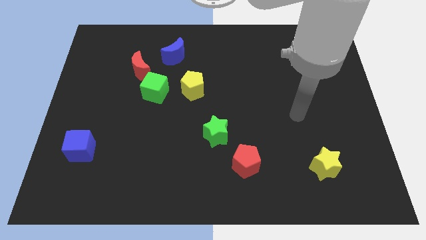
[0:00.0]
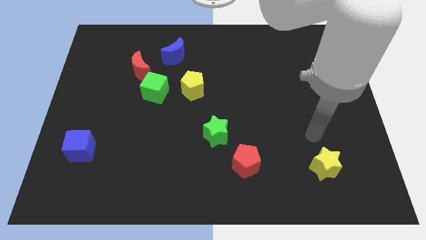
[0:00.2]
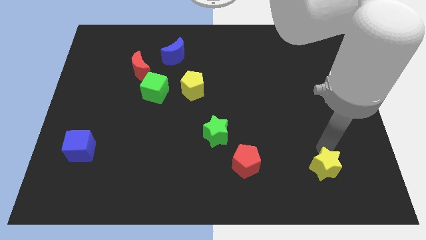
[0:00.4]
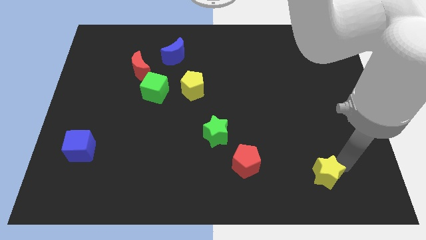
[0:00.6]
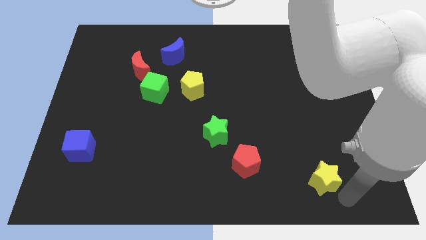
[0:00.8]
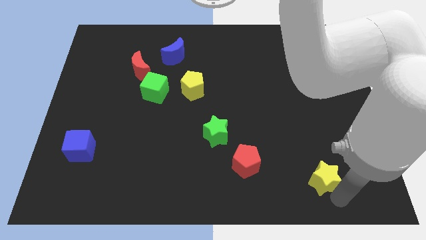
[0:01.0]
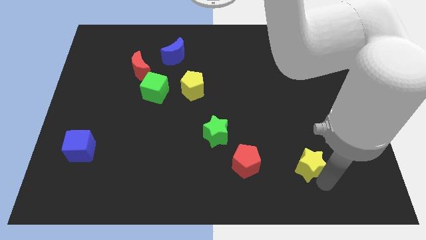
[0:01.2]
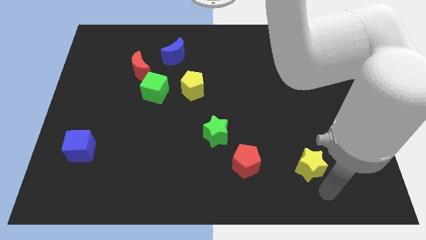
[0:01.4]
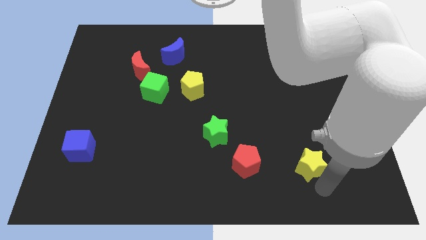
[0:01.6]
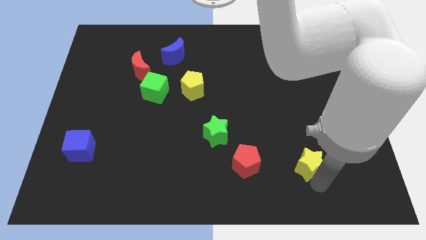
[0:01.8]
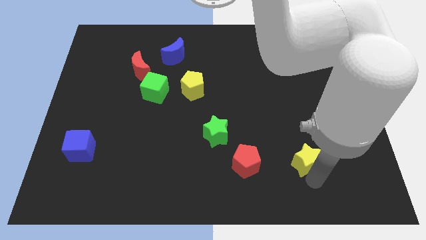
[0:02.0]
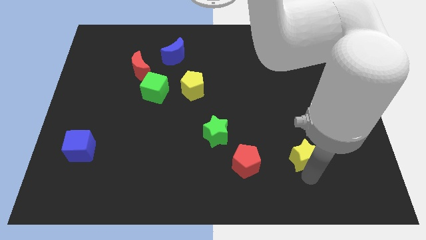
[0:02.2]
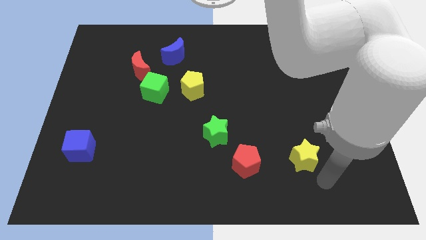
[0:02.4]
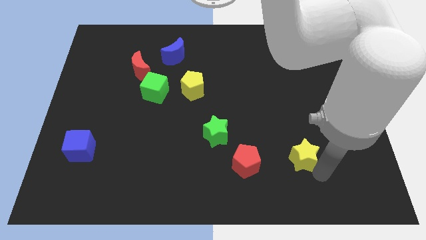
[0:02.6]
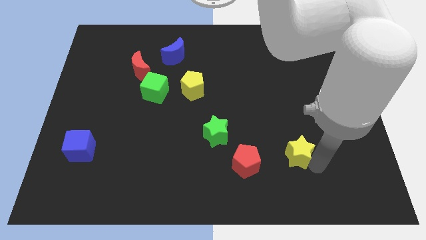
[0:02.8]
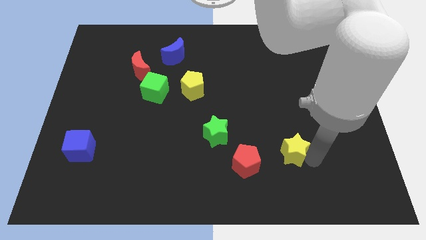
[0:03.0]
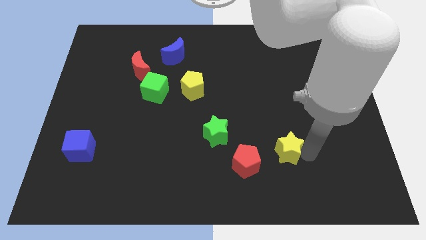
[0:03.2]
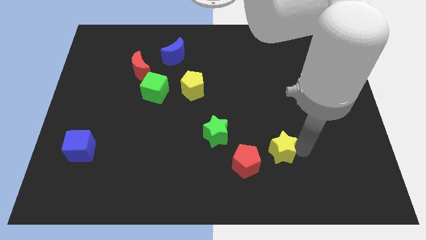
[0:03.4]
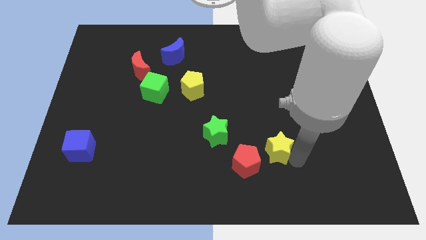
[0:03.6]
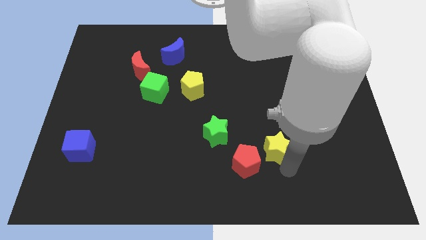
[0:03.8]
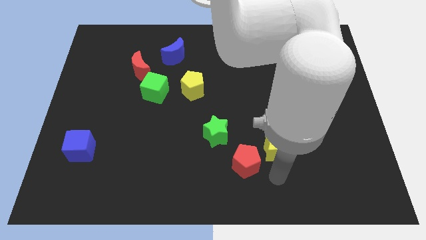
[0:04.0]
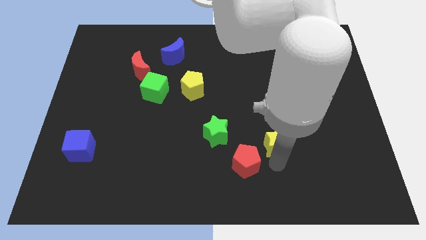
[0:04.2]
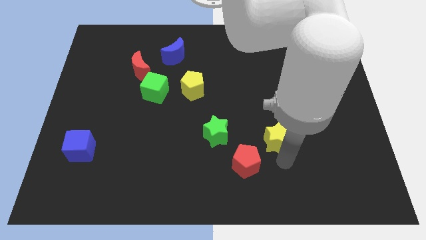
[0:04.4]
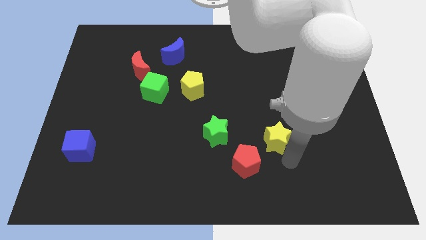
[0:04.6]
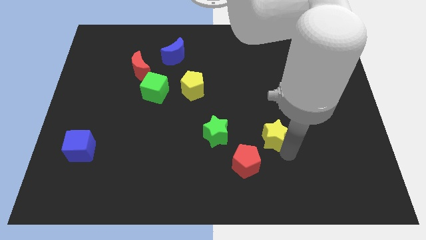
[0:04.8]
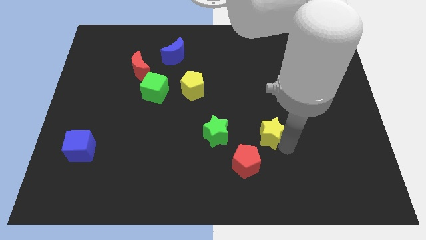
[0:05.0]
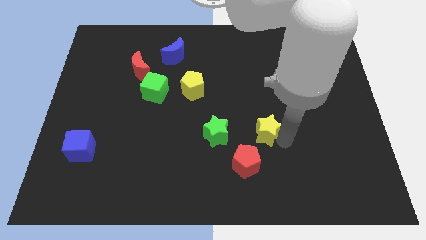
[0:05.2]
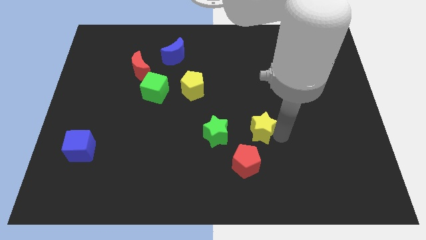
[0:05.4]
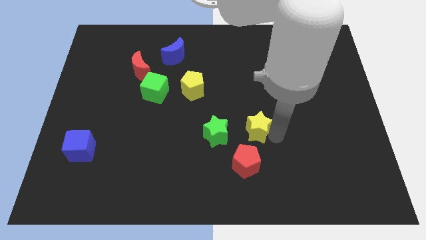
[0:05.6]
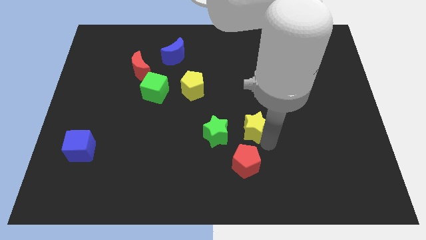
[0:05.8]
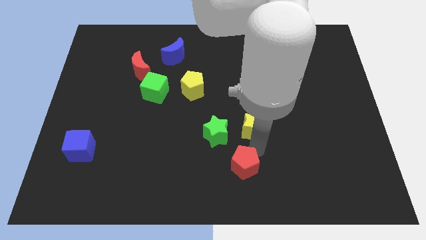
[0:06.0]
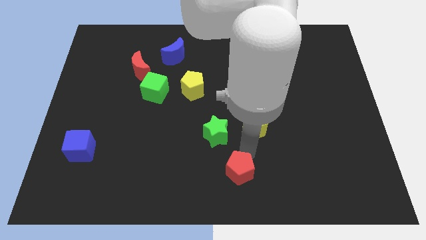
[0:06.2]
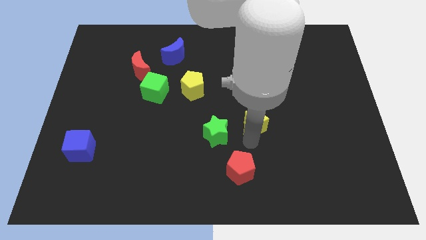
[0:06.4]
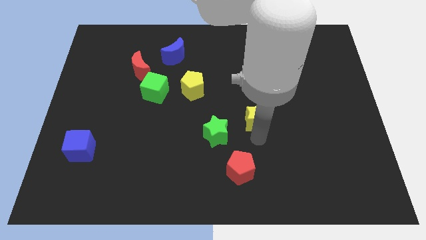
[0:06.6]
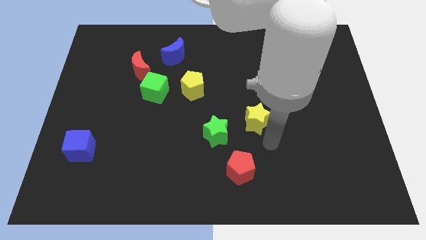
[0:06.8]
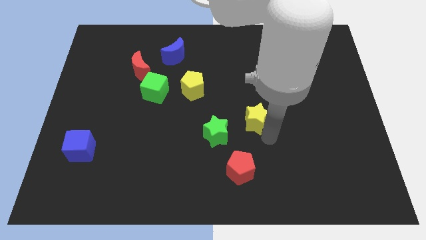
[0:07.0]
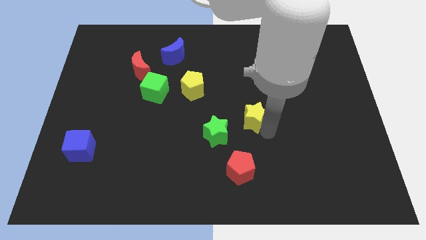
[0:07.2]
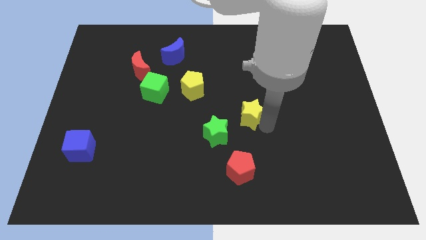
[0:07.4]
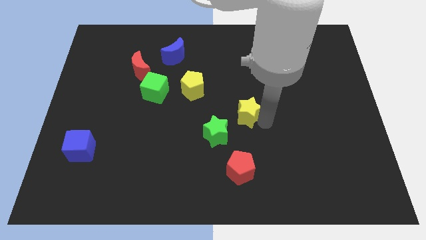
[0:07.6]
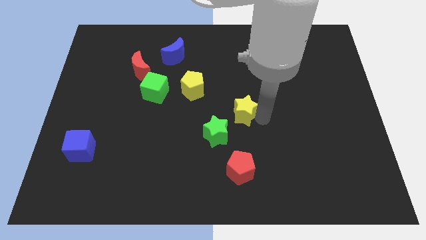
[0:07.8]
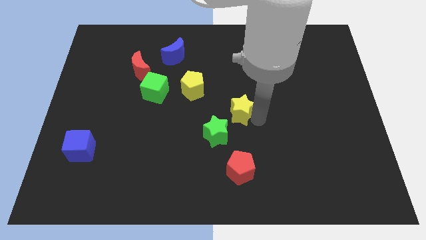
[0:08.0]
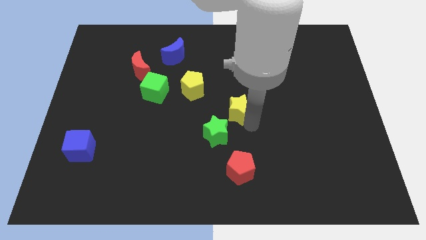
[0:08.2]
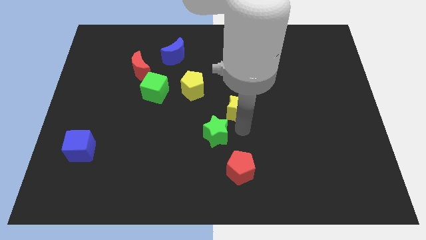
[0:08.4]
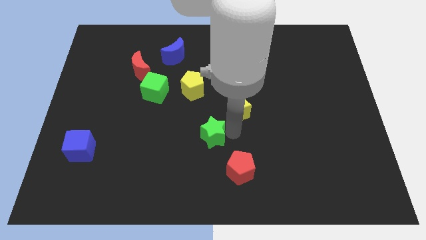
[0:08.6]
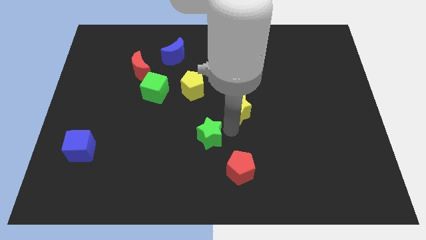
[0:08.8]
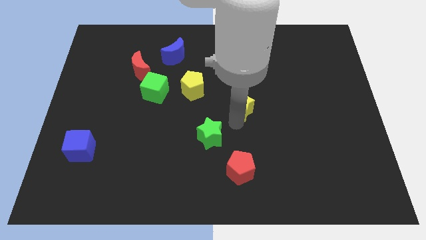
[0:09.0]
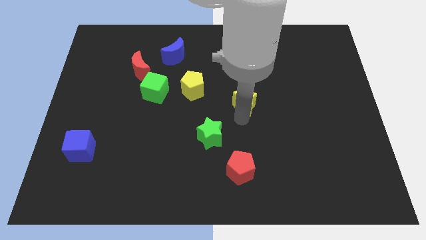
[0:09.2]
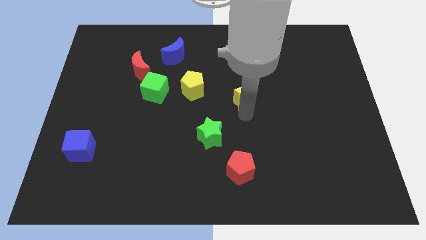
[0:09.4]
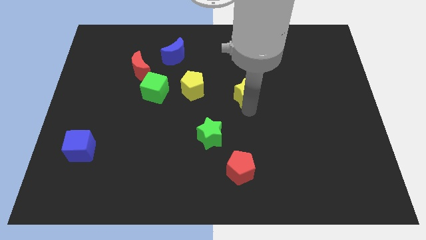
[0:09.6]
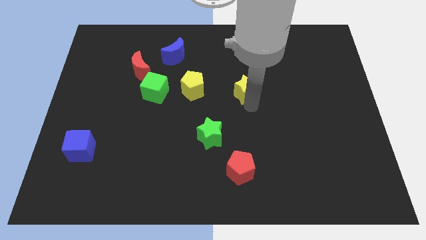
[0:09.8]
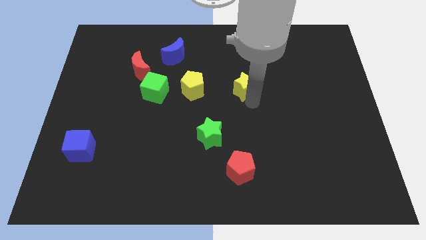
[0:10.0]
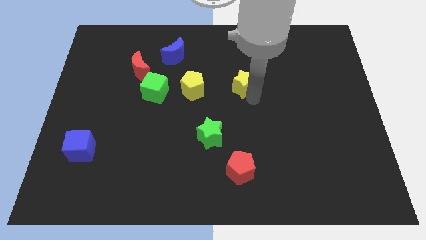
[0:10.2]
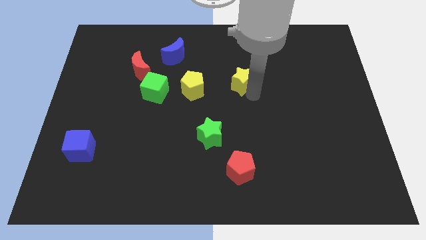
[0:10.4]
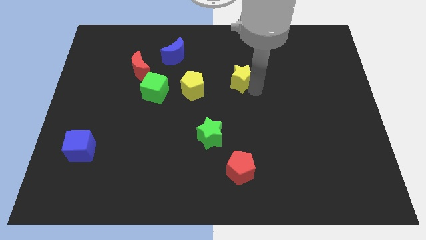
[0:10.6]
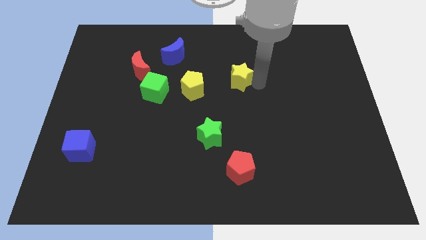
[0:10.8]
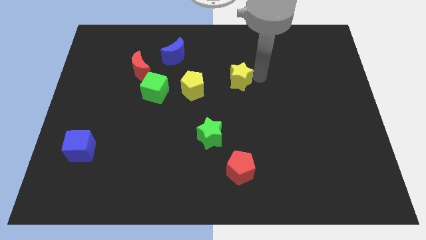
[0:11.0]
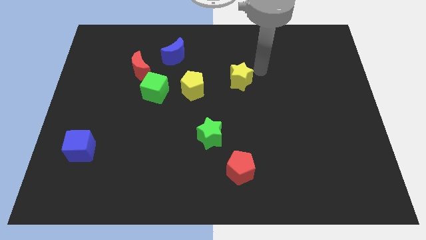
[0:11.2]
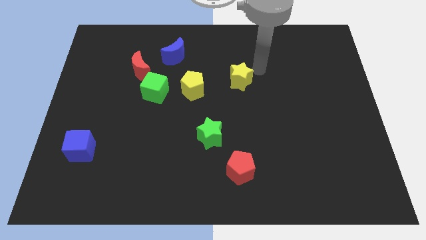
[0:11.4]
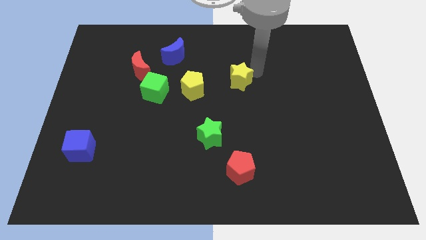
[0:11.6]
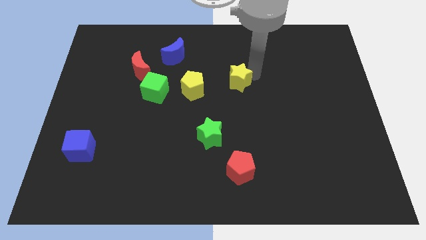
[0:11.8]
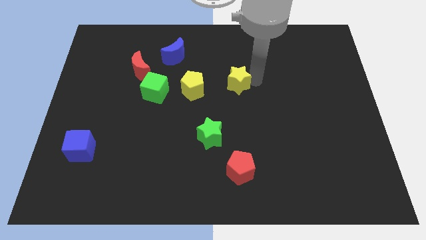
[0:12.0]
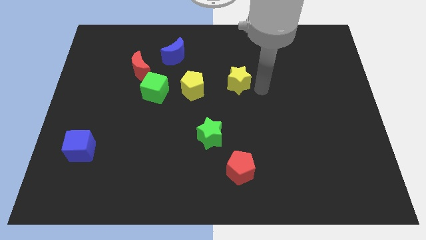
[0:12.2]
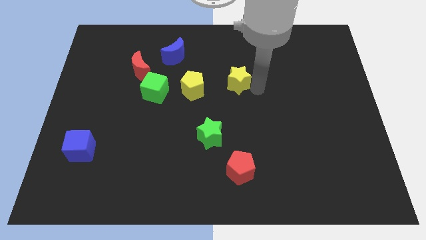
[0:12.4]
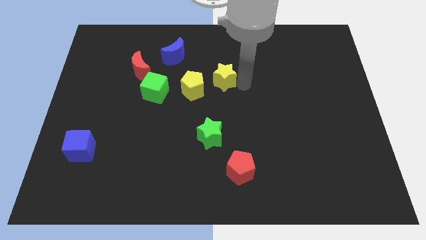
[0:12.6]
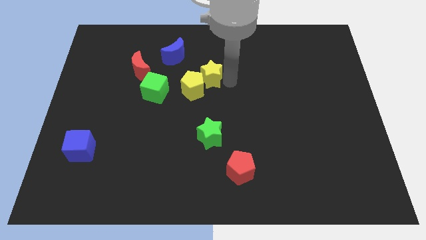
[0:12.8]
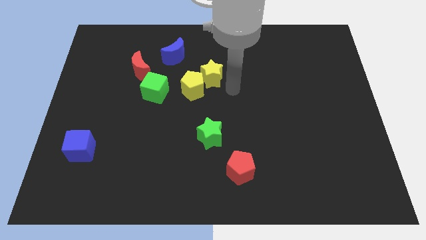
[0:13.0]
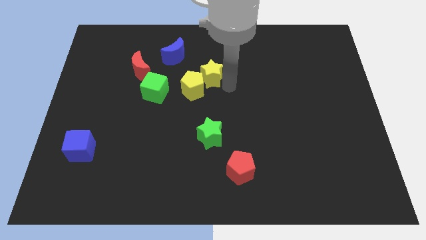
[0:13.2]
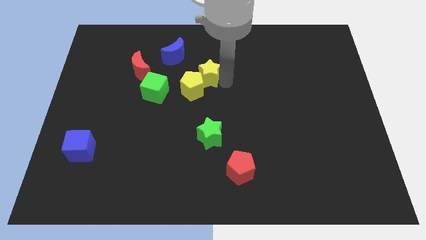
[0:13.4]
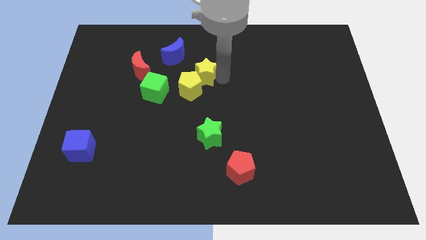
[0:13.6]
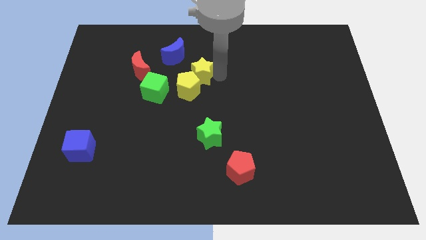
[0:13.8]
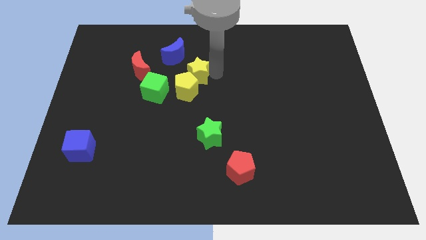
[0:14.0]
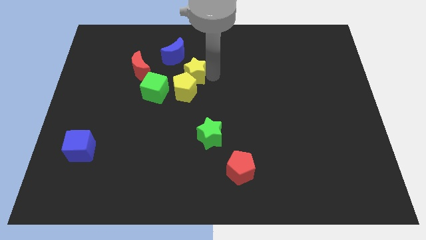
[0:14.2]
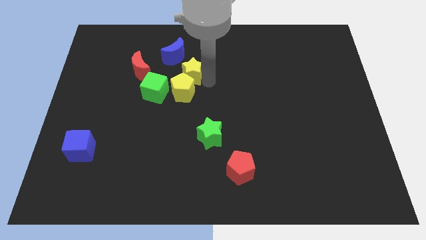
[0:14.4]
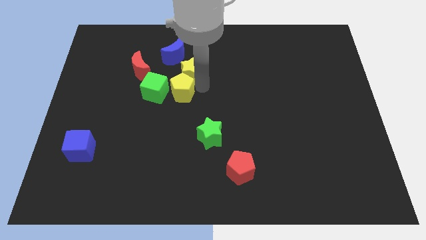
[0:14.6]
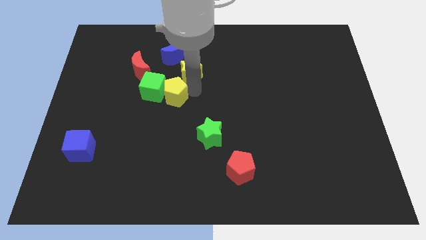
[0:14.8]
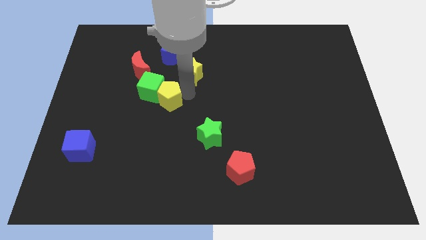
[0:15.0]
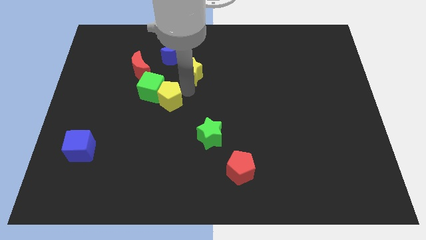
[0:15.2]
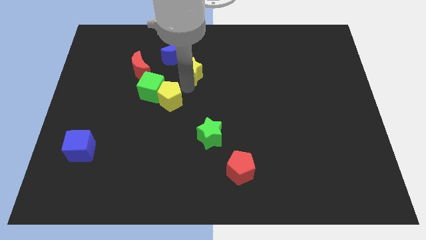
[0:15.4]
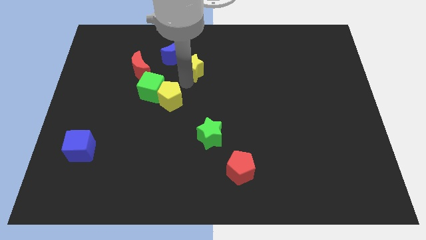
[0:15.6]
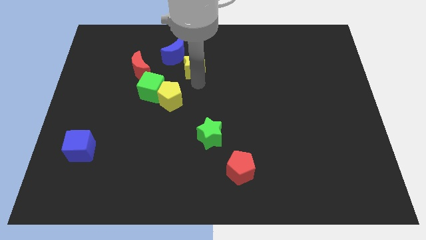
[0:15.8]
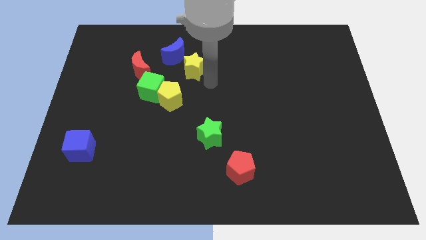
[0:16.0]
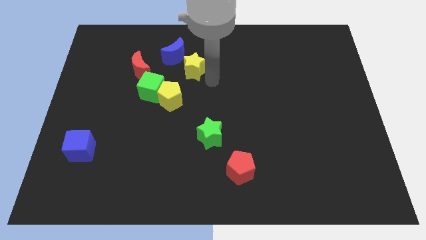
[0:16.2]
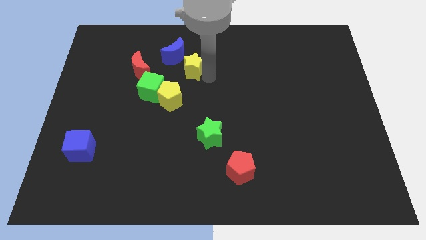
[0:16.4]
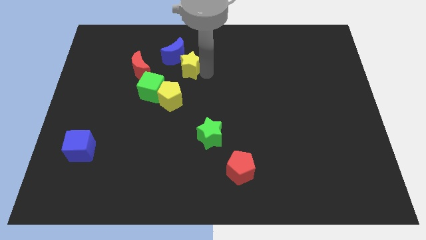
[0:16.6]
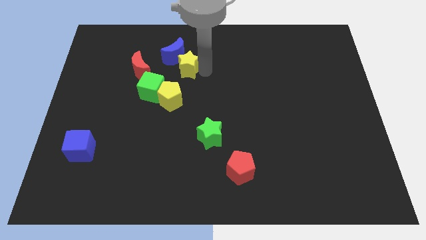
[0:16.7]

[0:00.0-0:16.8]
slide the yellow star next to the blue moon
